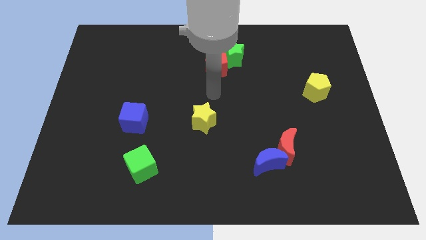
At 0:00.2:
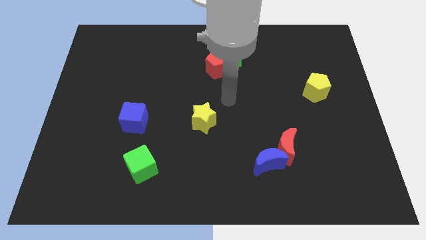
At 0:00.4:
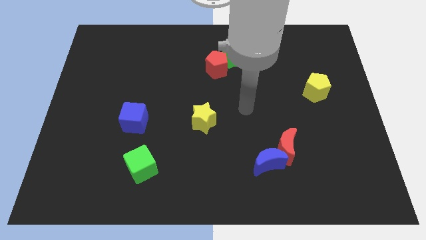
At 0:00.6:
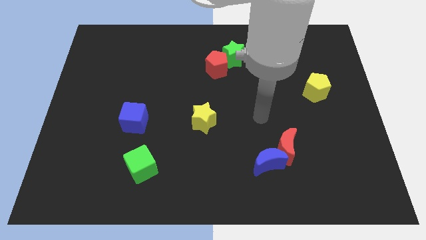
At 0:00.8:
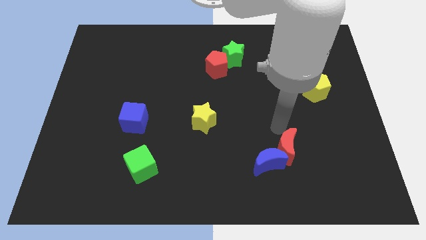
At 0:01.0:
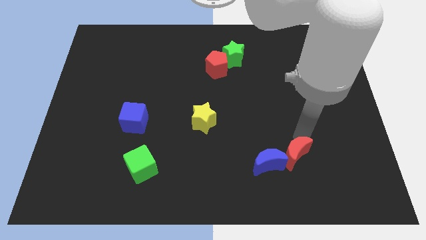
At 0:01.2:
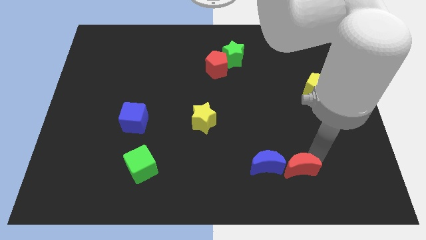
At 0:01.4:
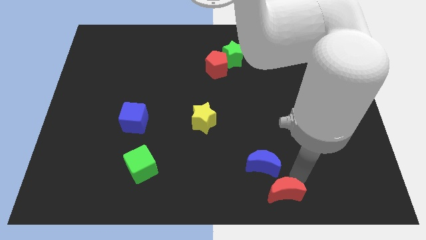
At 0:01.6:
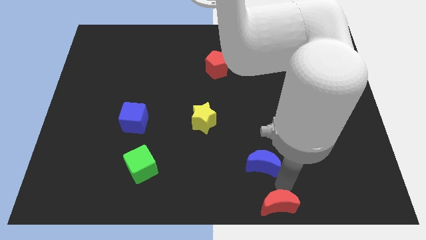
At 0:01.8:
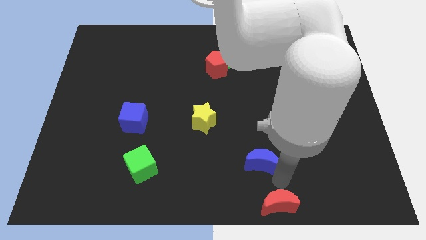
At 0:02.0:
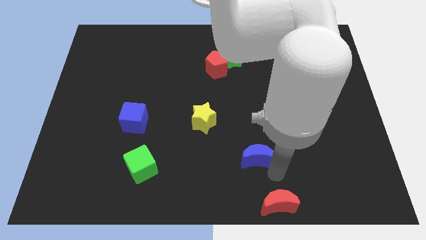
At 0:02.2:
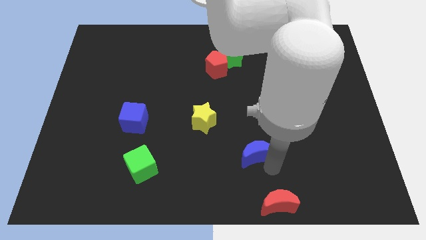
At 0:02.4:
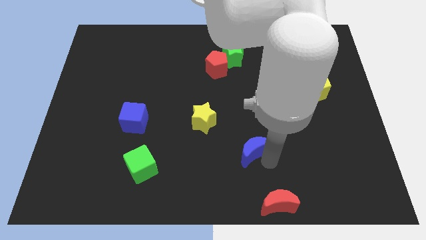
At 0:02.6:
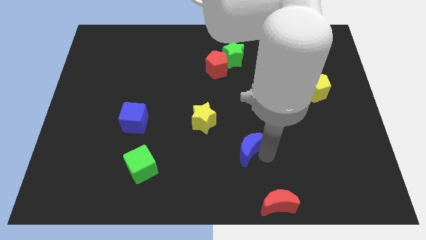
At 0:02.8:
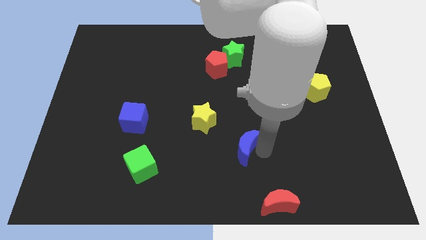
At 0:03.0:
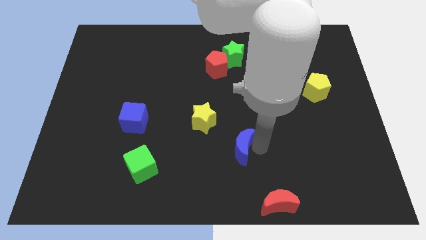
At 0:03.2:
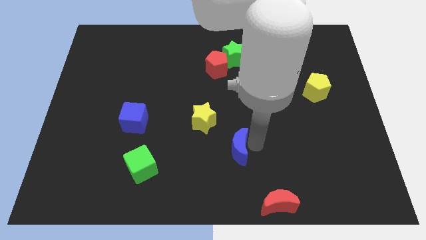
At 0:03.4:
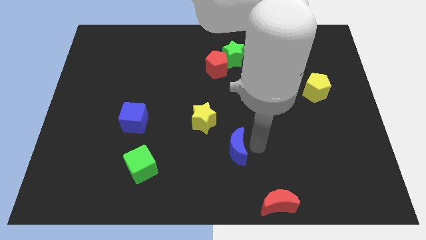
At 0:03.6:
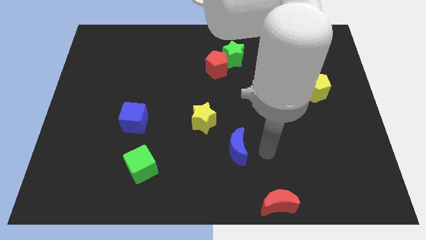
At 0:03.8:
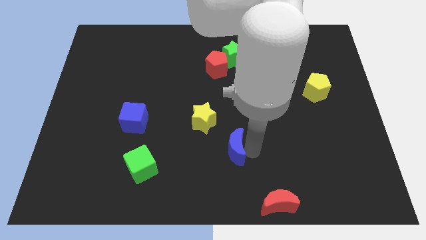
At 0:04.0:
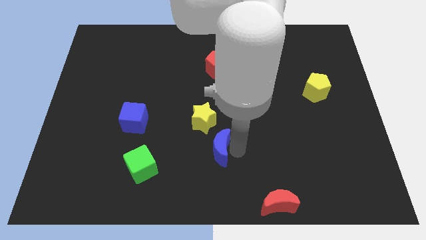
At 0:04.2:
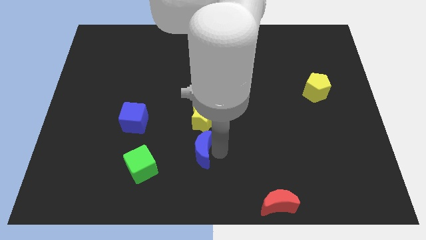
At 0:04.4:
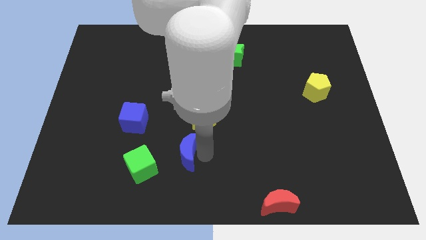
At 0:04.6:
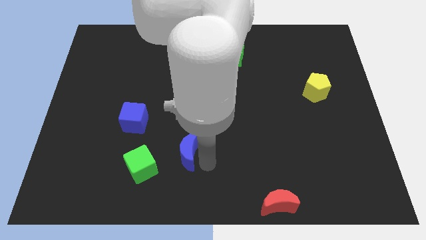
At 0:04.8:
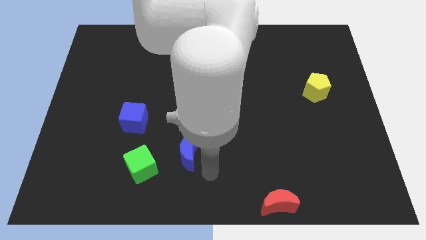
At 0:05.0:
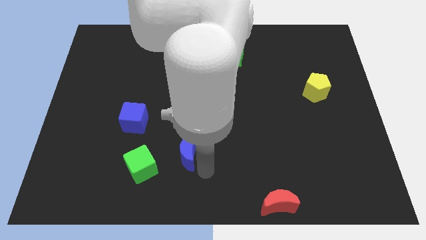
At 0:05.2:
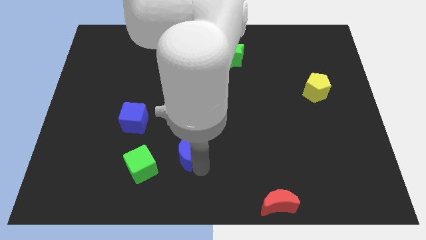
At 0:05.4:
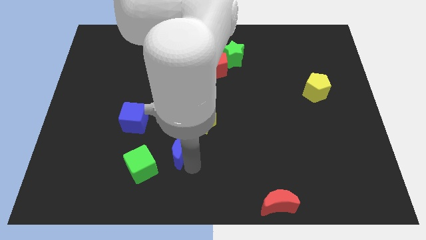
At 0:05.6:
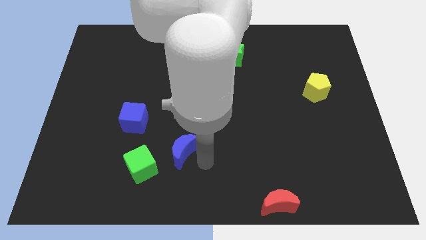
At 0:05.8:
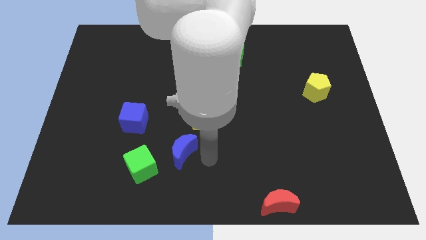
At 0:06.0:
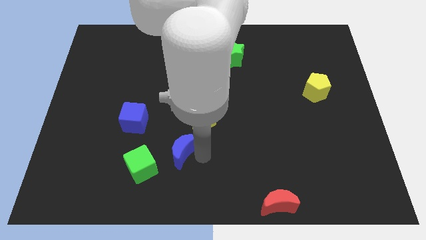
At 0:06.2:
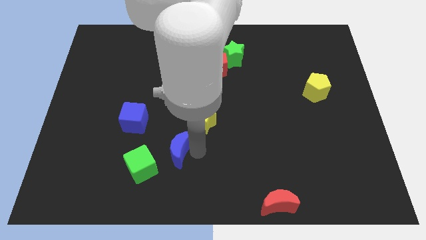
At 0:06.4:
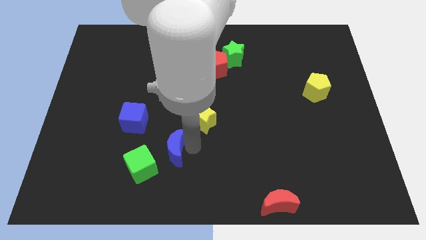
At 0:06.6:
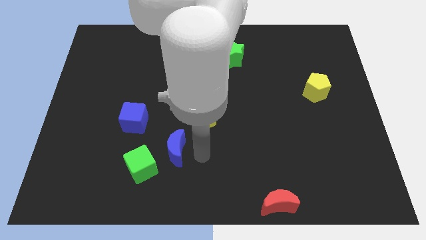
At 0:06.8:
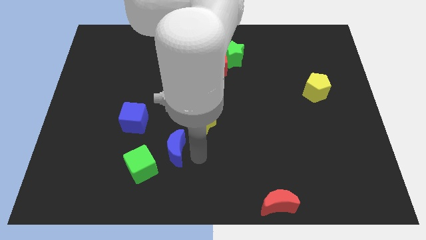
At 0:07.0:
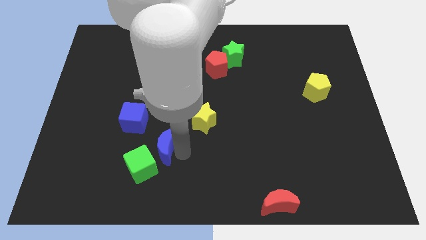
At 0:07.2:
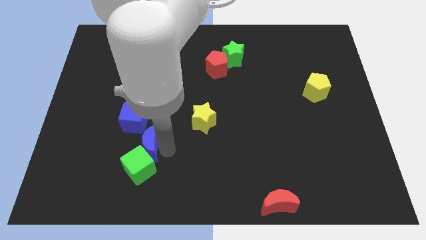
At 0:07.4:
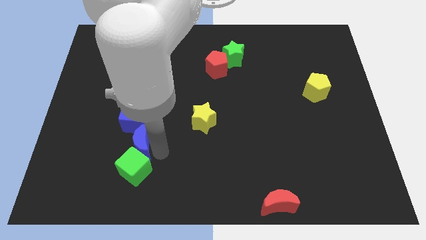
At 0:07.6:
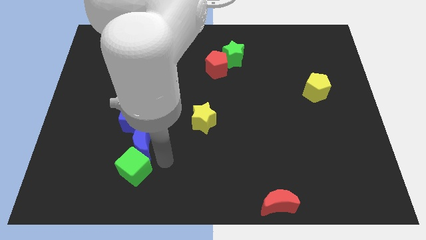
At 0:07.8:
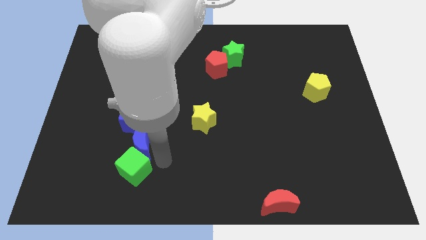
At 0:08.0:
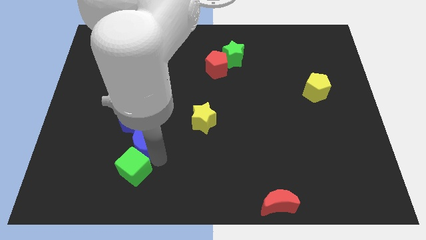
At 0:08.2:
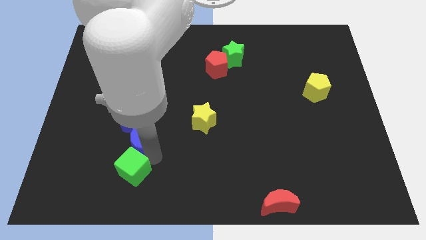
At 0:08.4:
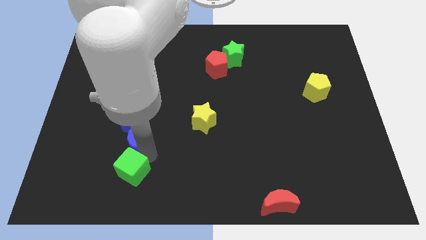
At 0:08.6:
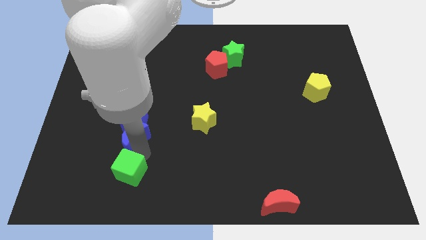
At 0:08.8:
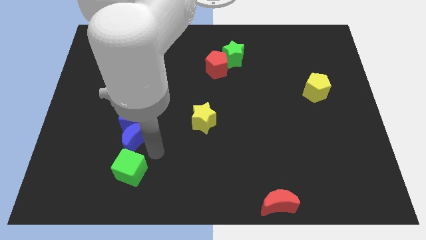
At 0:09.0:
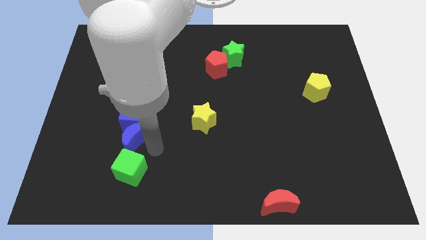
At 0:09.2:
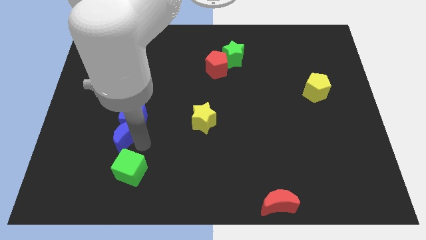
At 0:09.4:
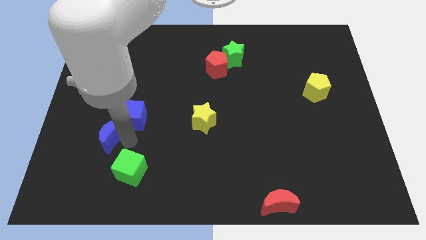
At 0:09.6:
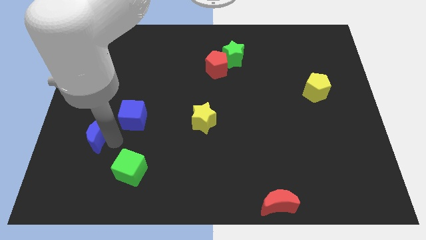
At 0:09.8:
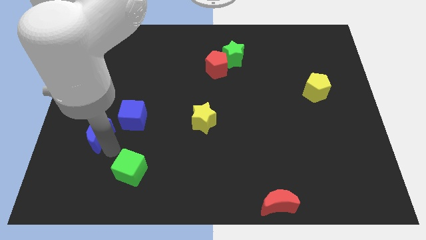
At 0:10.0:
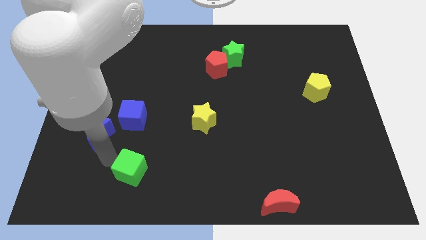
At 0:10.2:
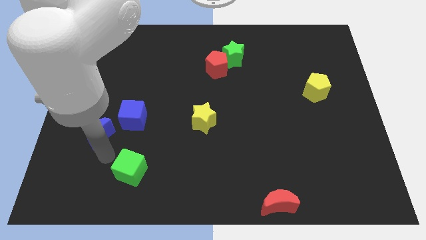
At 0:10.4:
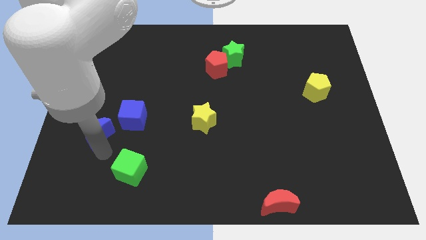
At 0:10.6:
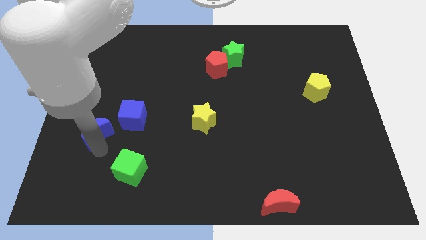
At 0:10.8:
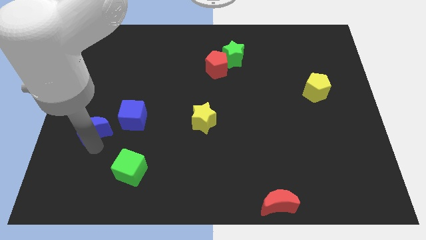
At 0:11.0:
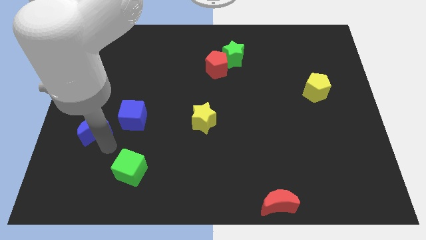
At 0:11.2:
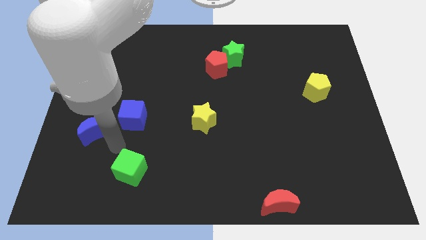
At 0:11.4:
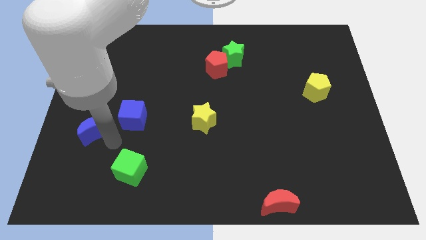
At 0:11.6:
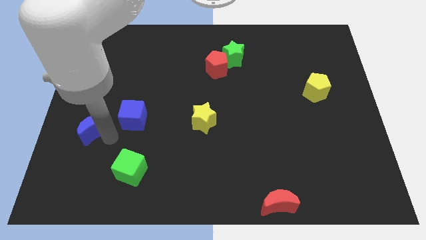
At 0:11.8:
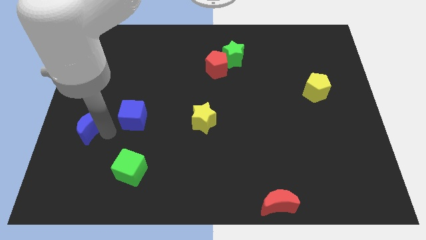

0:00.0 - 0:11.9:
push the blue moon to the center left

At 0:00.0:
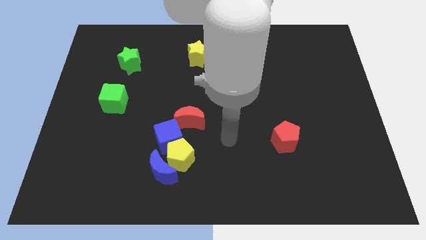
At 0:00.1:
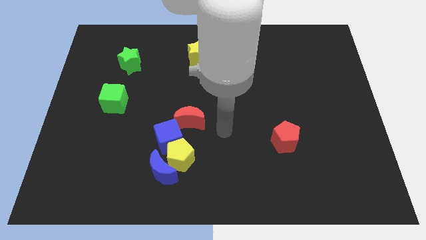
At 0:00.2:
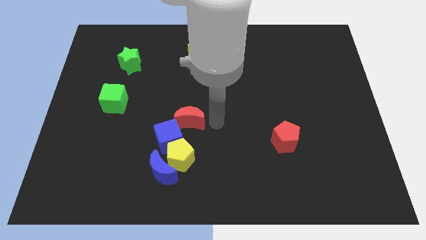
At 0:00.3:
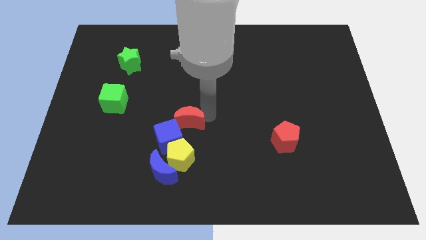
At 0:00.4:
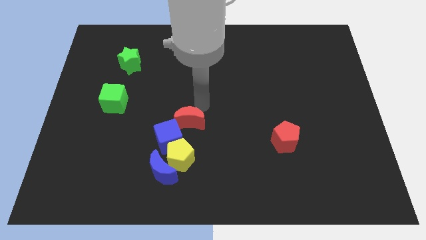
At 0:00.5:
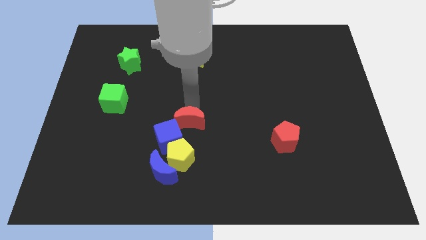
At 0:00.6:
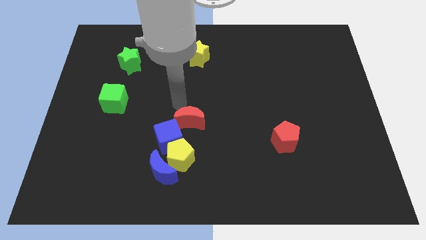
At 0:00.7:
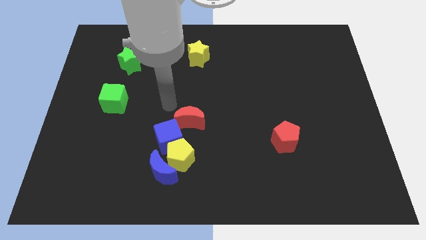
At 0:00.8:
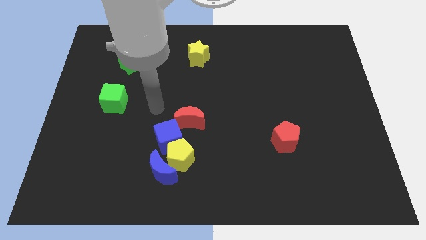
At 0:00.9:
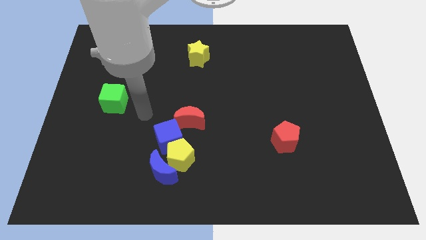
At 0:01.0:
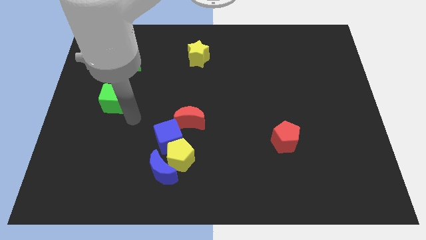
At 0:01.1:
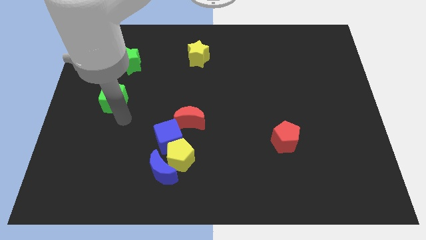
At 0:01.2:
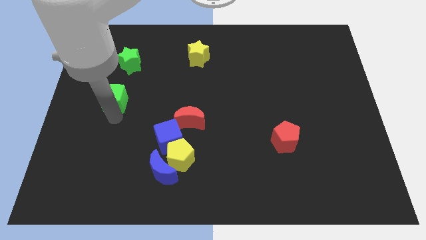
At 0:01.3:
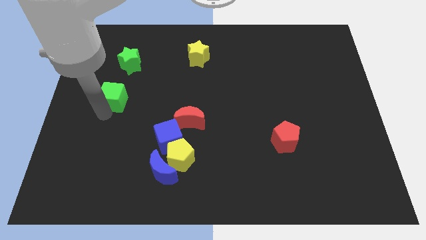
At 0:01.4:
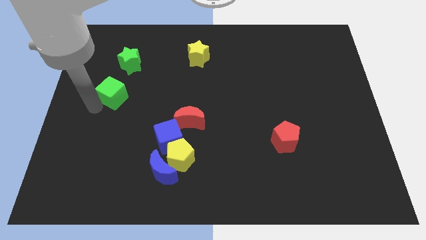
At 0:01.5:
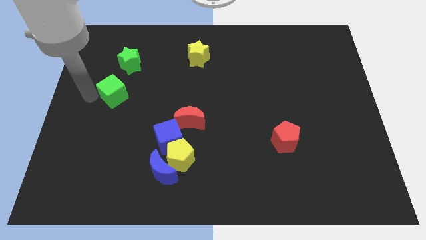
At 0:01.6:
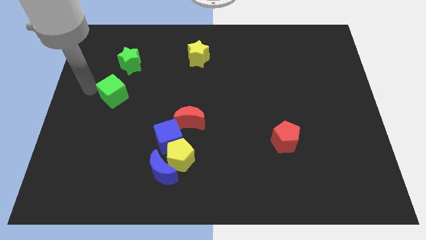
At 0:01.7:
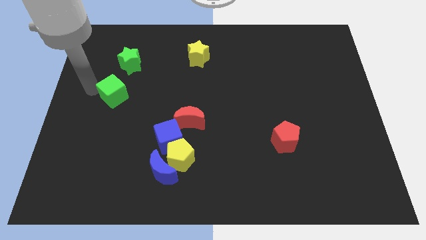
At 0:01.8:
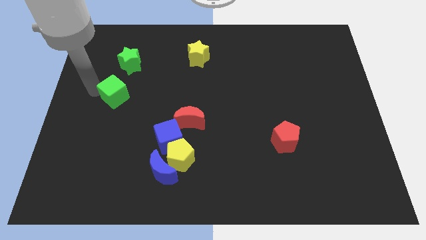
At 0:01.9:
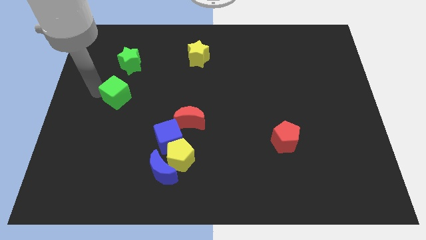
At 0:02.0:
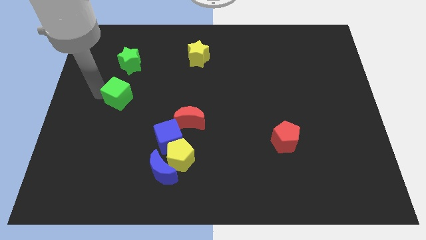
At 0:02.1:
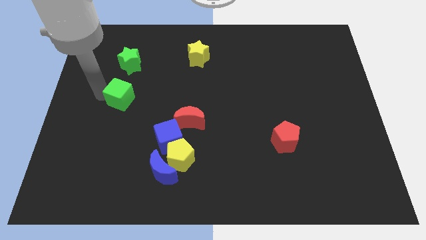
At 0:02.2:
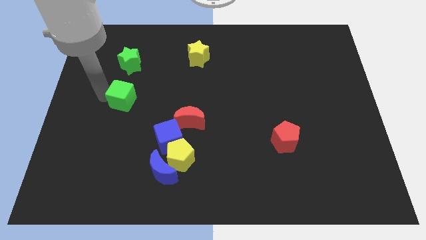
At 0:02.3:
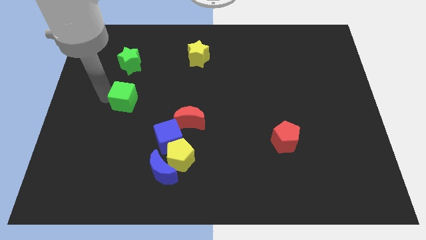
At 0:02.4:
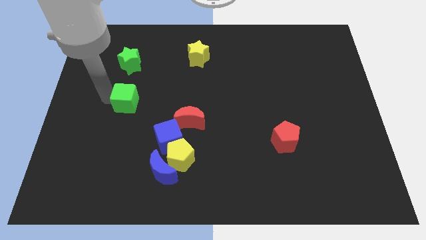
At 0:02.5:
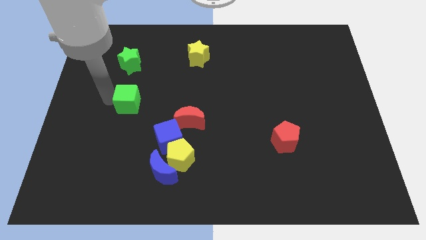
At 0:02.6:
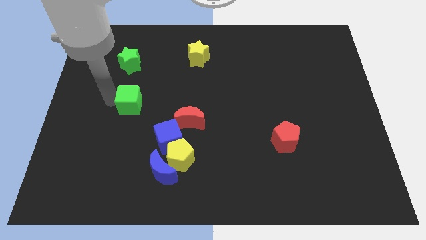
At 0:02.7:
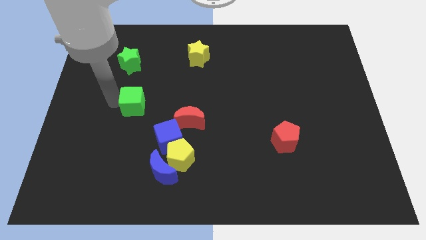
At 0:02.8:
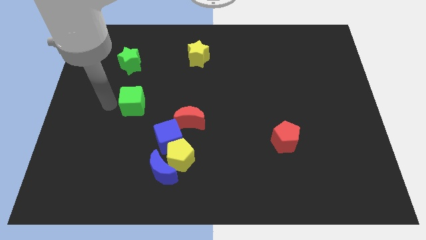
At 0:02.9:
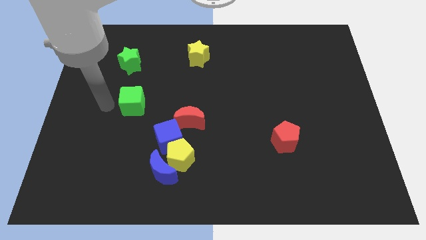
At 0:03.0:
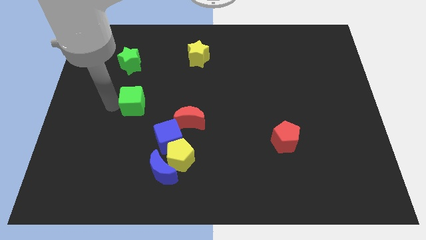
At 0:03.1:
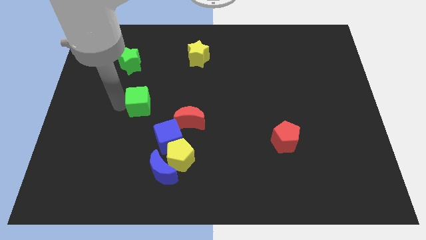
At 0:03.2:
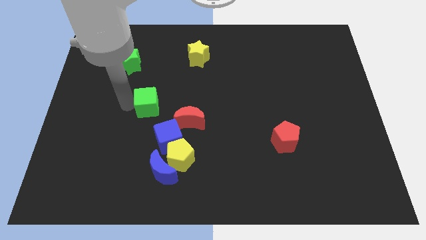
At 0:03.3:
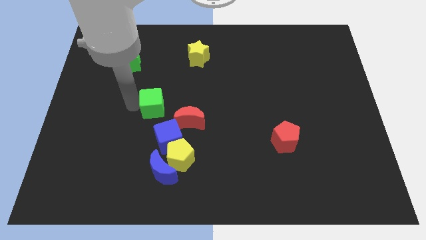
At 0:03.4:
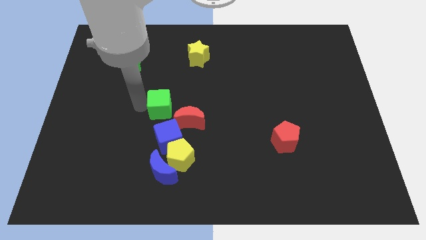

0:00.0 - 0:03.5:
push the green cube to the middle
